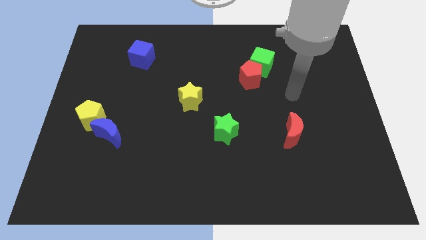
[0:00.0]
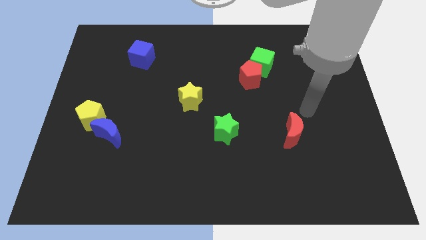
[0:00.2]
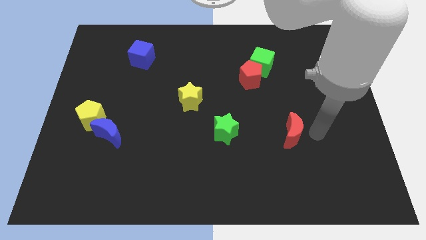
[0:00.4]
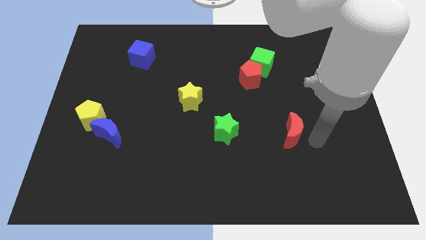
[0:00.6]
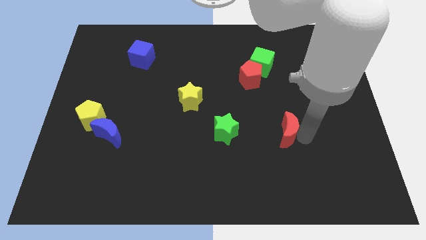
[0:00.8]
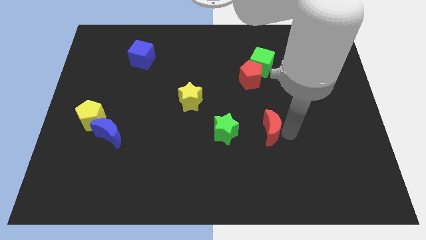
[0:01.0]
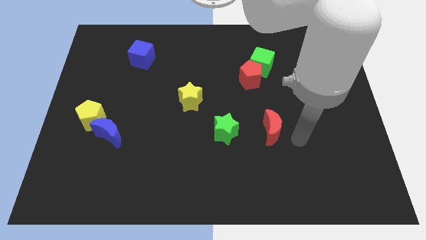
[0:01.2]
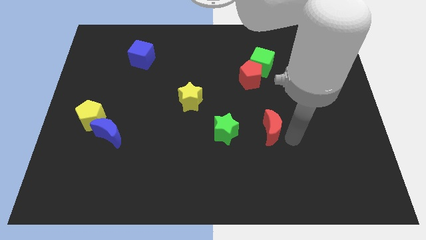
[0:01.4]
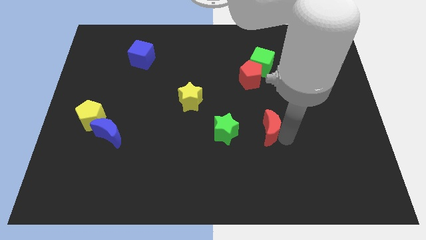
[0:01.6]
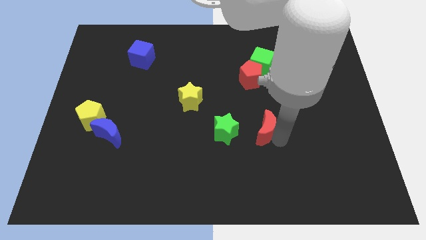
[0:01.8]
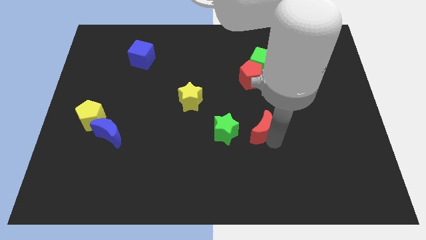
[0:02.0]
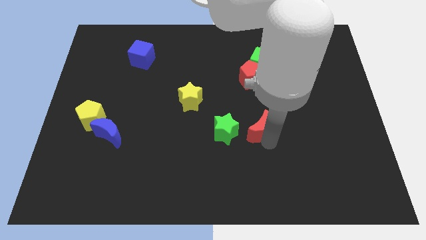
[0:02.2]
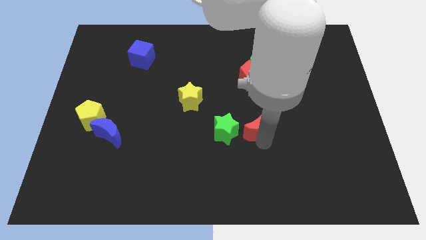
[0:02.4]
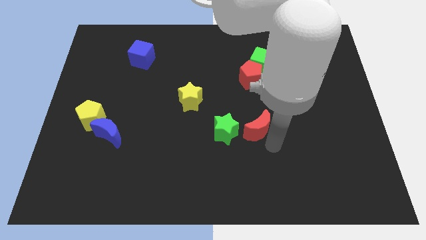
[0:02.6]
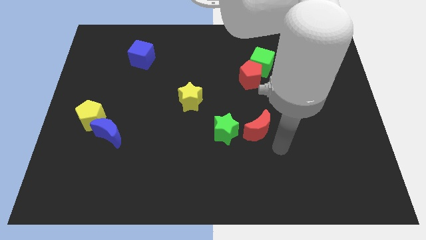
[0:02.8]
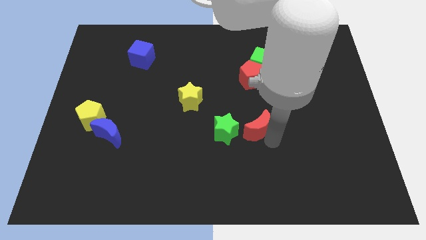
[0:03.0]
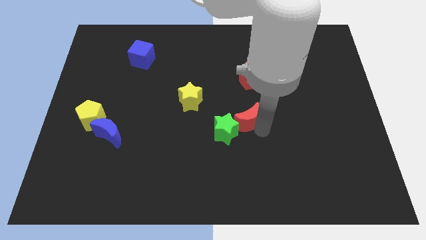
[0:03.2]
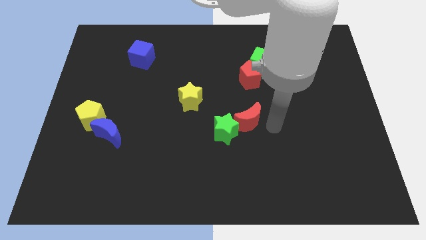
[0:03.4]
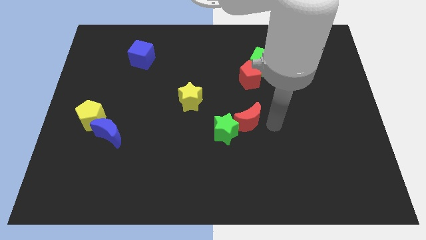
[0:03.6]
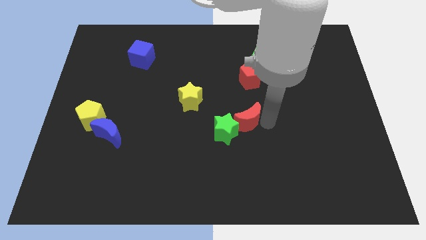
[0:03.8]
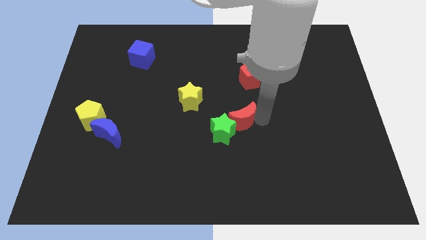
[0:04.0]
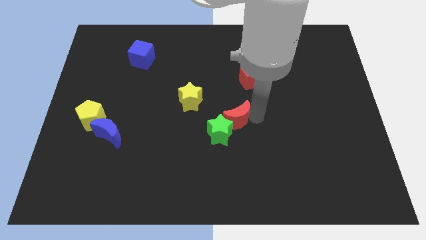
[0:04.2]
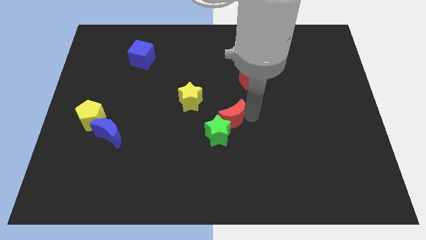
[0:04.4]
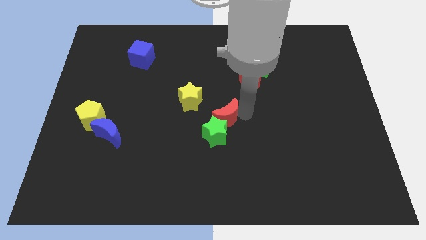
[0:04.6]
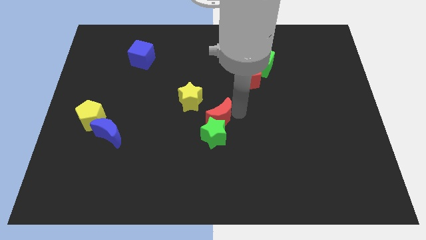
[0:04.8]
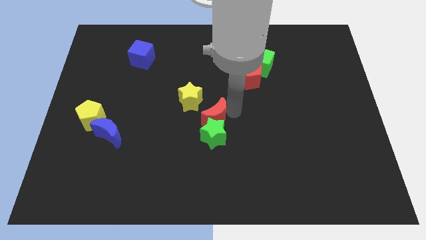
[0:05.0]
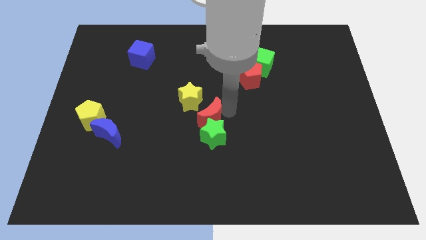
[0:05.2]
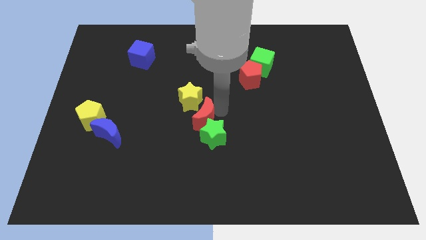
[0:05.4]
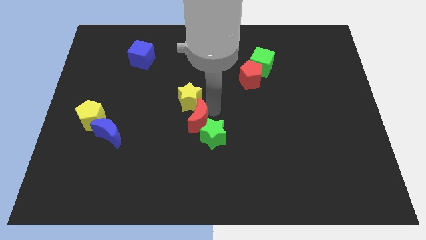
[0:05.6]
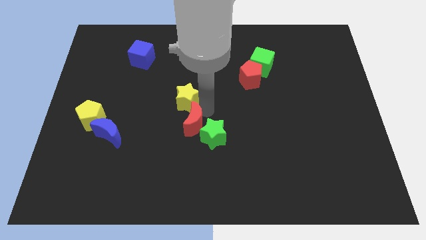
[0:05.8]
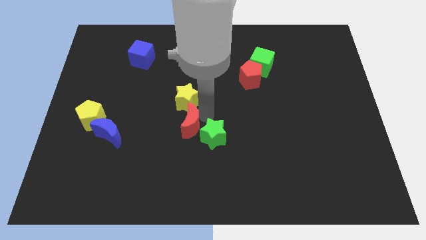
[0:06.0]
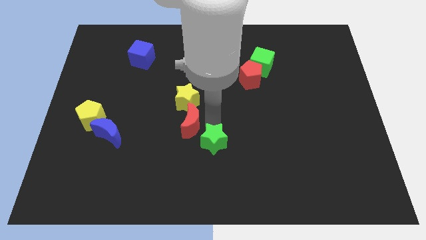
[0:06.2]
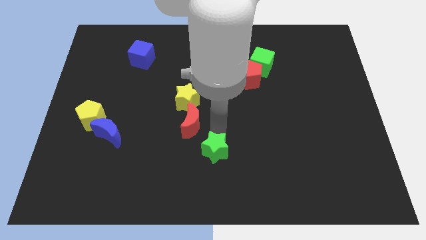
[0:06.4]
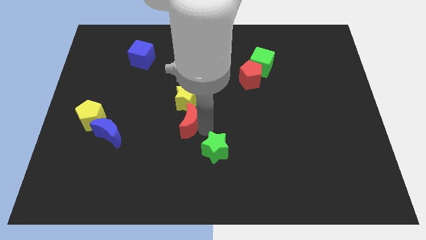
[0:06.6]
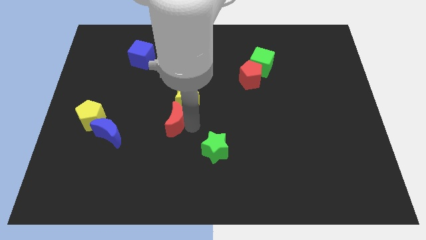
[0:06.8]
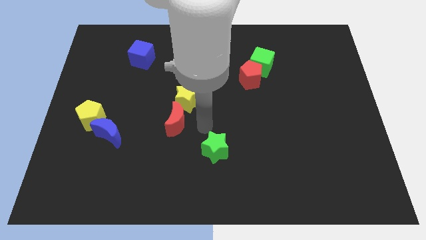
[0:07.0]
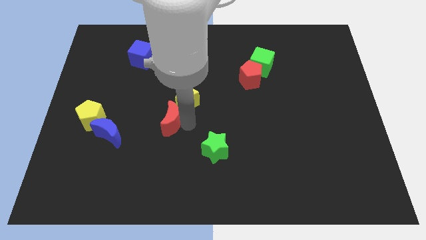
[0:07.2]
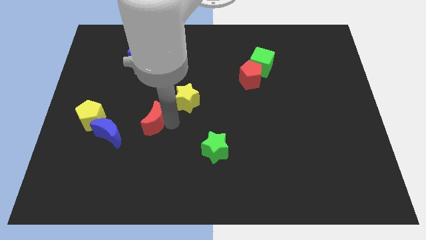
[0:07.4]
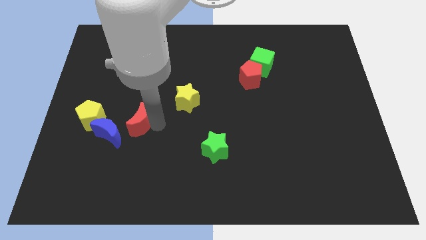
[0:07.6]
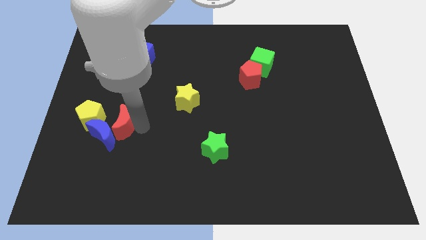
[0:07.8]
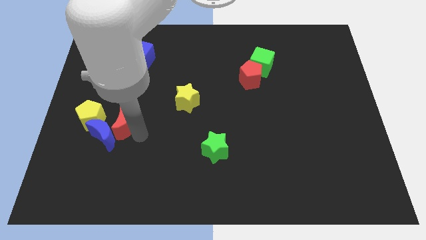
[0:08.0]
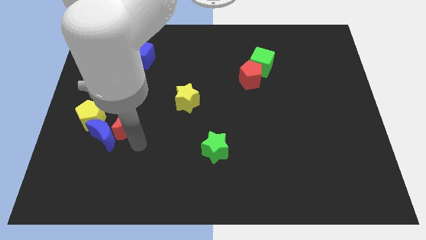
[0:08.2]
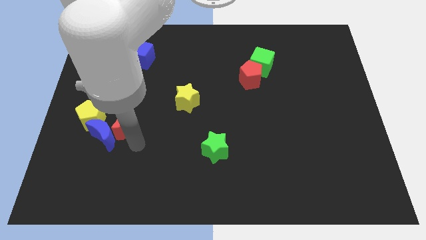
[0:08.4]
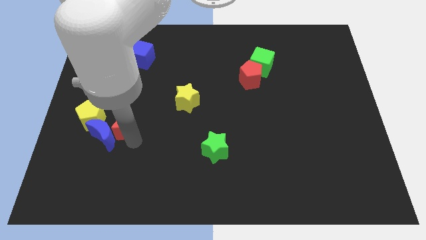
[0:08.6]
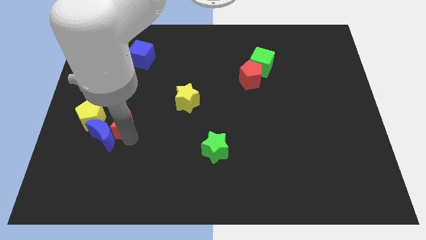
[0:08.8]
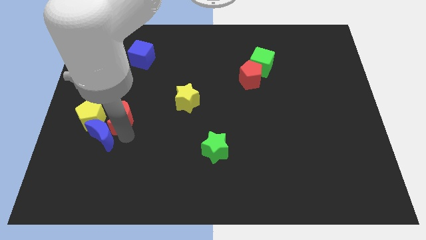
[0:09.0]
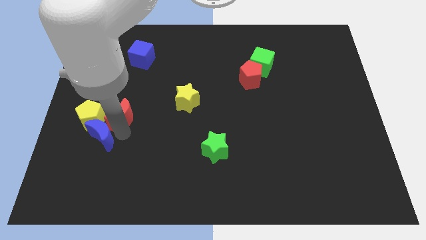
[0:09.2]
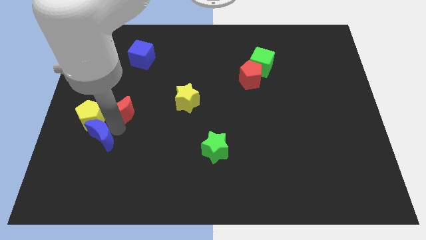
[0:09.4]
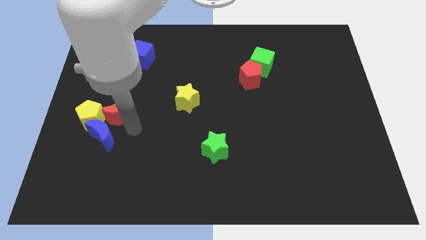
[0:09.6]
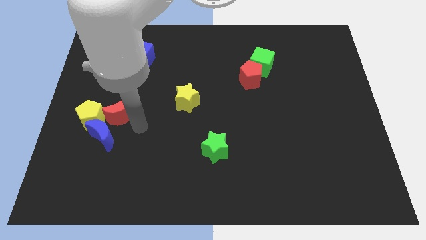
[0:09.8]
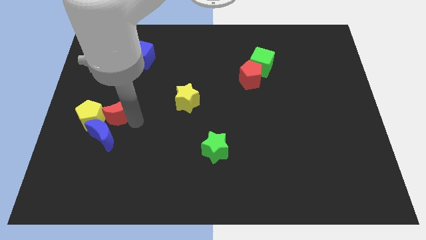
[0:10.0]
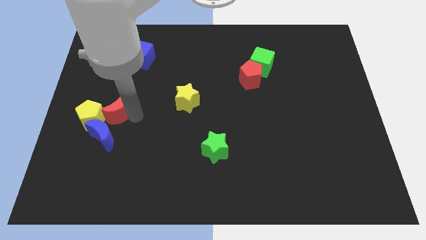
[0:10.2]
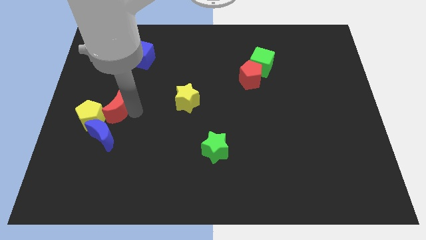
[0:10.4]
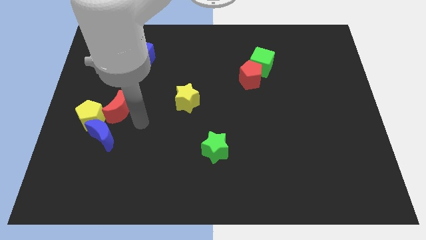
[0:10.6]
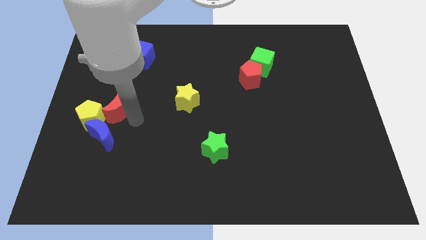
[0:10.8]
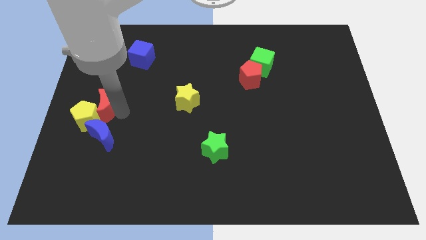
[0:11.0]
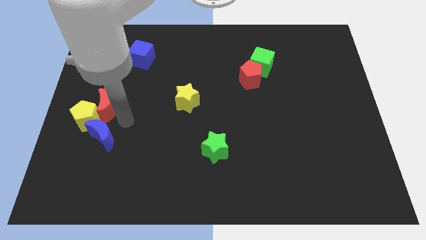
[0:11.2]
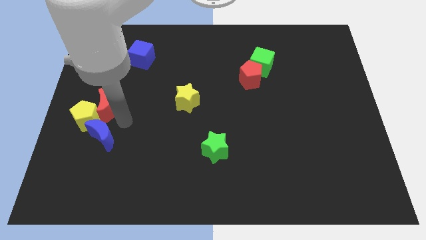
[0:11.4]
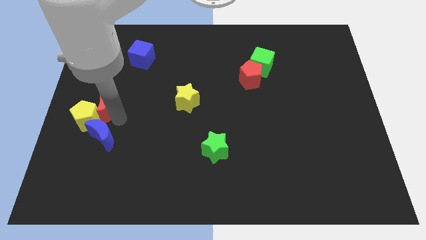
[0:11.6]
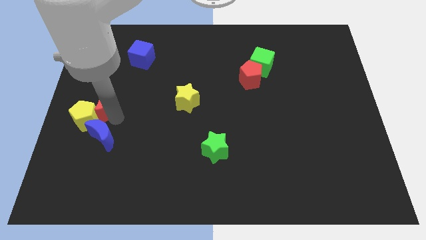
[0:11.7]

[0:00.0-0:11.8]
move the red moon to the left side of the board

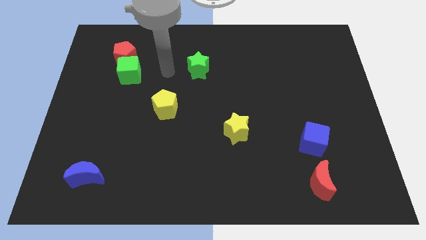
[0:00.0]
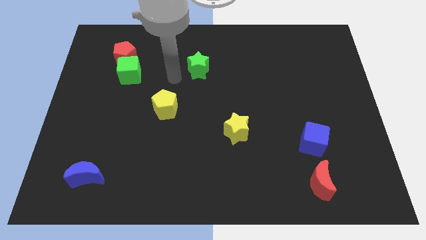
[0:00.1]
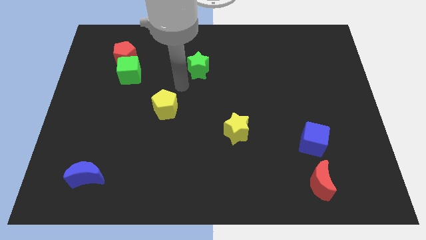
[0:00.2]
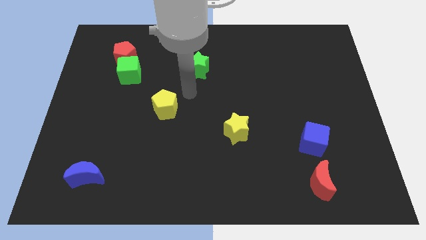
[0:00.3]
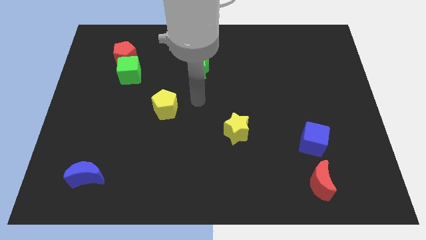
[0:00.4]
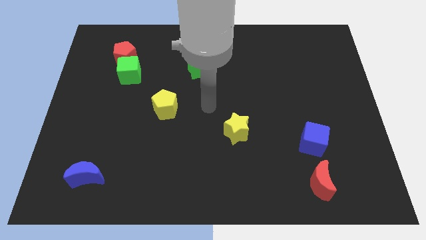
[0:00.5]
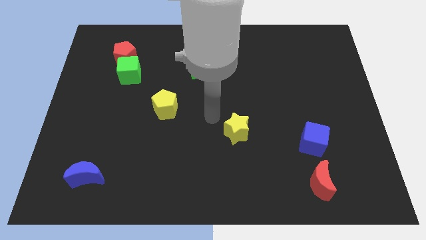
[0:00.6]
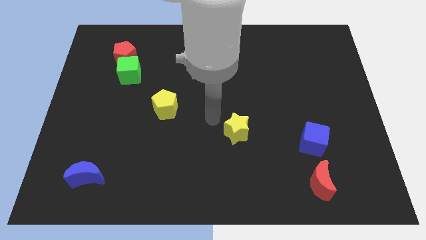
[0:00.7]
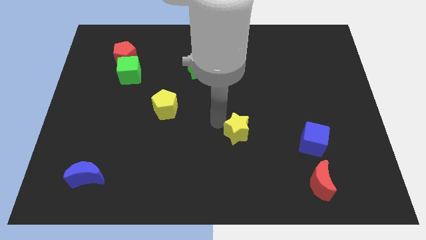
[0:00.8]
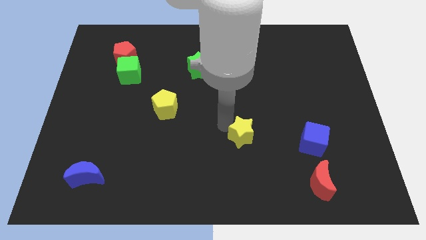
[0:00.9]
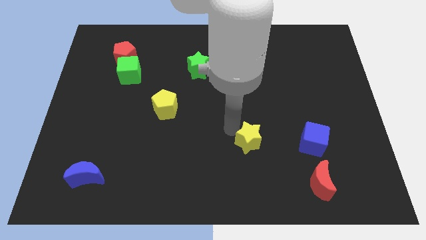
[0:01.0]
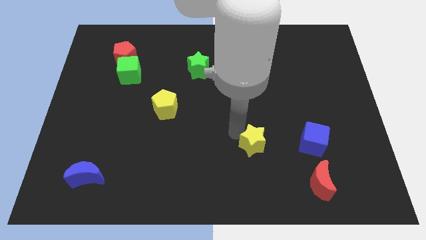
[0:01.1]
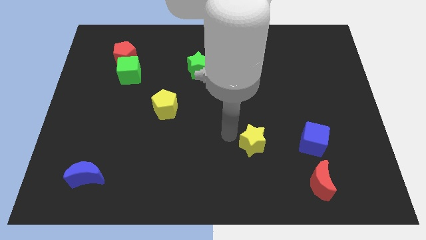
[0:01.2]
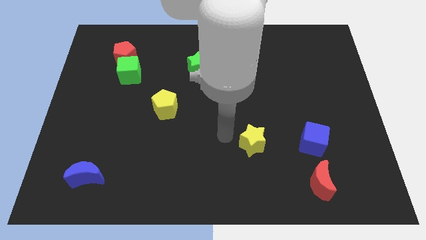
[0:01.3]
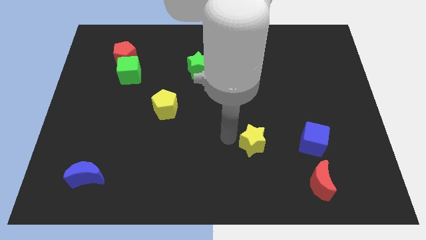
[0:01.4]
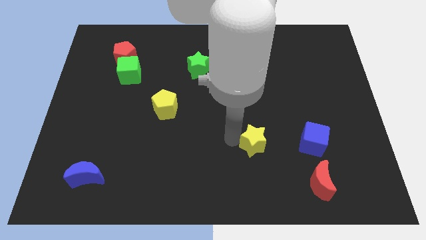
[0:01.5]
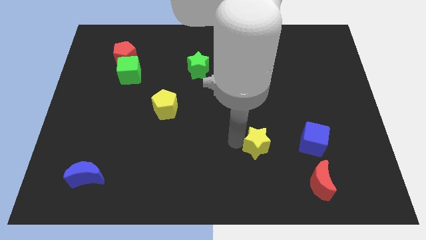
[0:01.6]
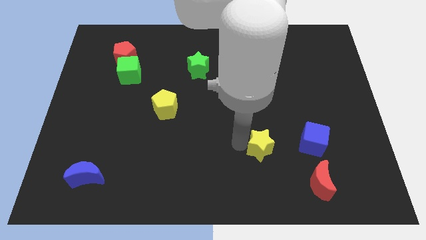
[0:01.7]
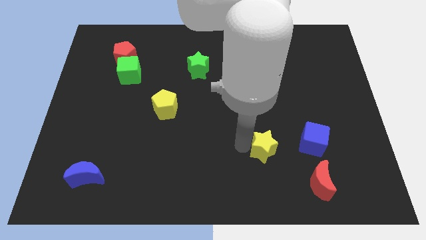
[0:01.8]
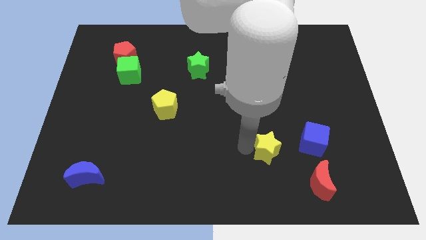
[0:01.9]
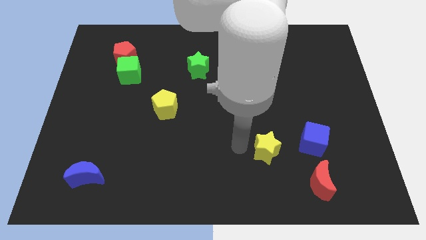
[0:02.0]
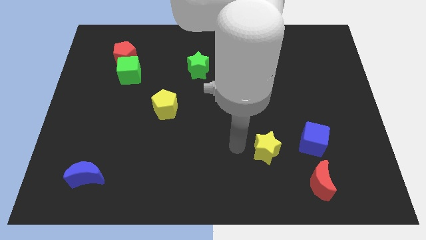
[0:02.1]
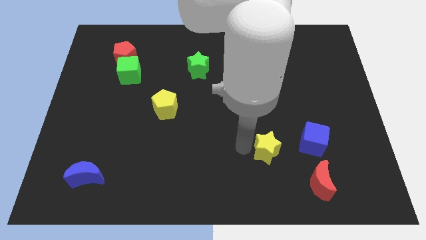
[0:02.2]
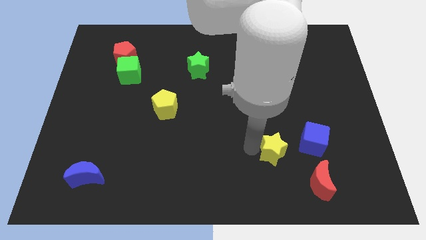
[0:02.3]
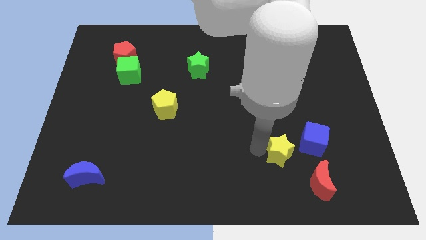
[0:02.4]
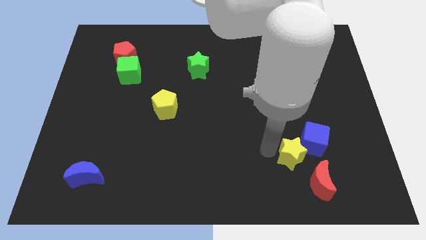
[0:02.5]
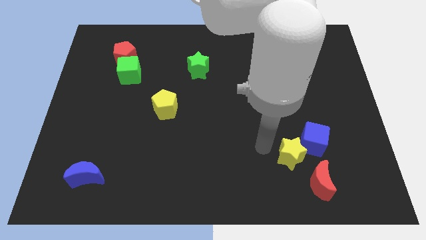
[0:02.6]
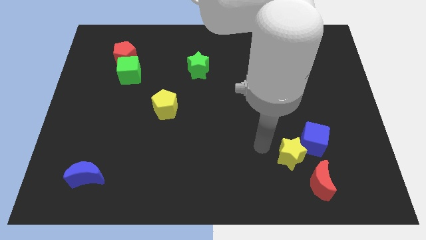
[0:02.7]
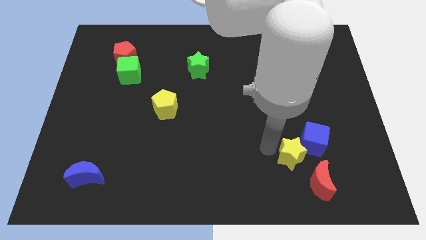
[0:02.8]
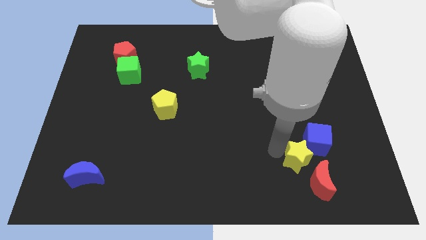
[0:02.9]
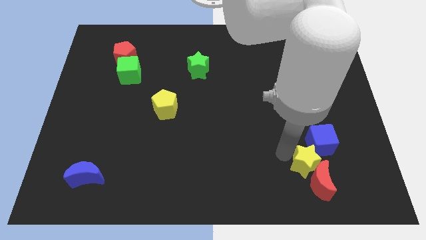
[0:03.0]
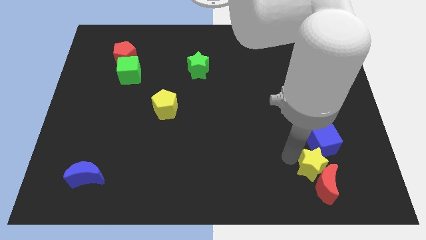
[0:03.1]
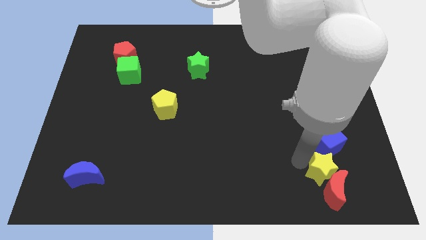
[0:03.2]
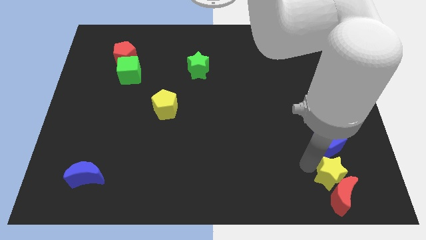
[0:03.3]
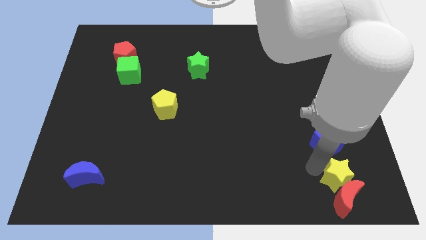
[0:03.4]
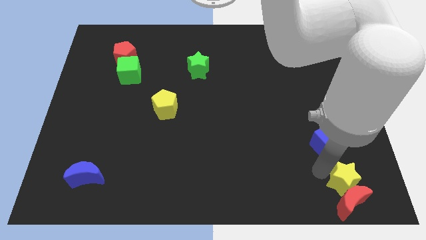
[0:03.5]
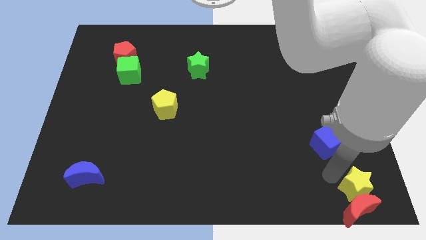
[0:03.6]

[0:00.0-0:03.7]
push the yellow star to the bottom right corner
